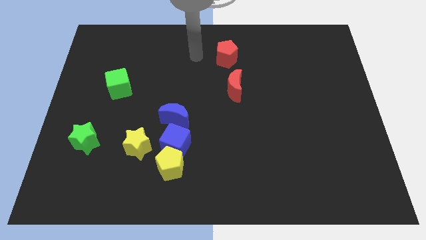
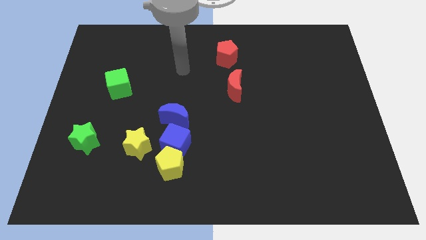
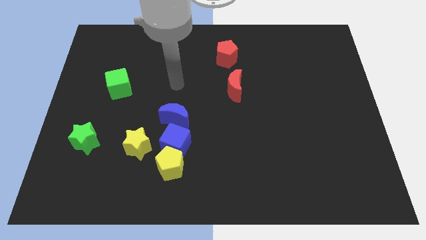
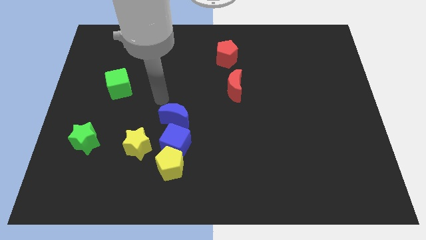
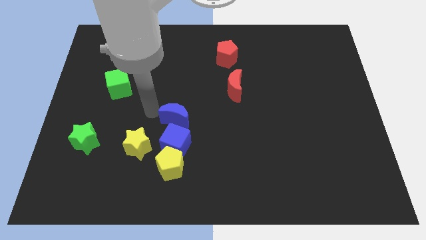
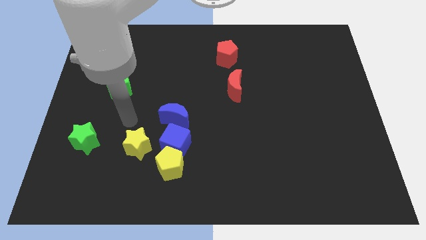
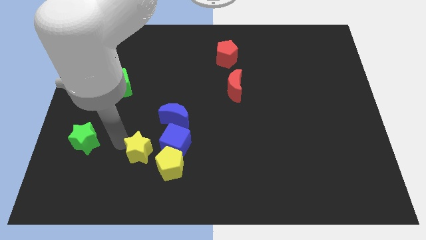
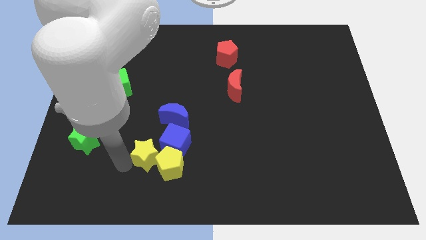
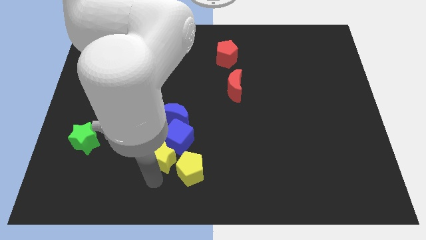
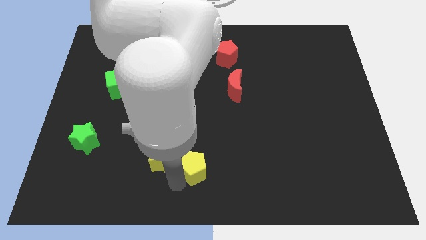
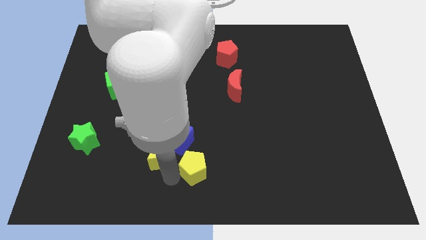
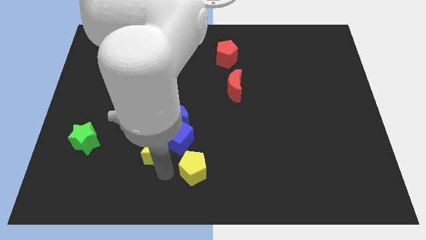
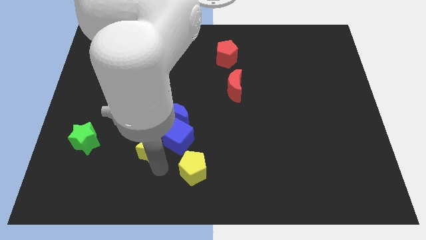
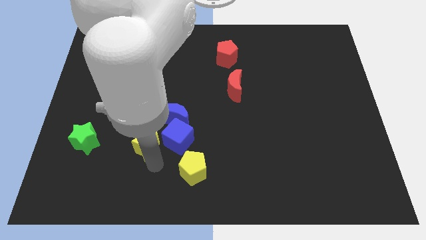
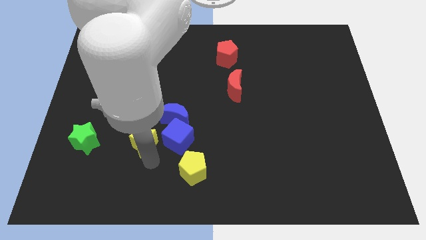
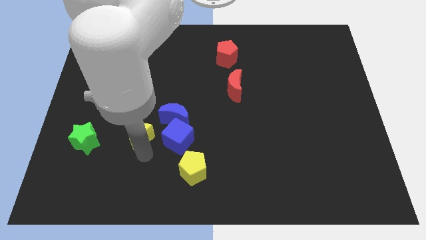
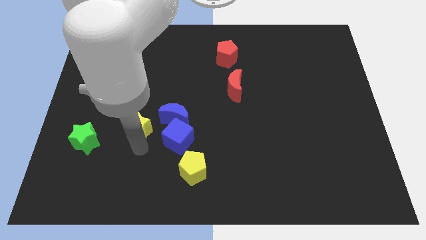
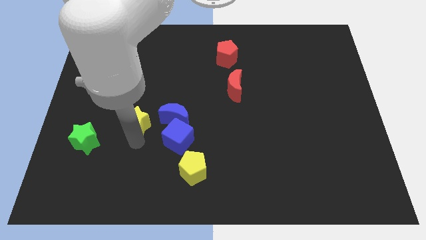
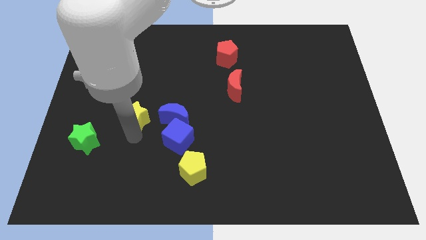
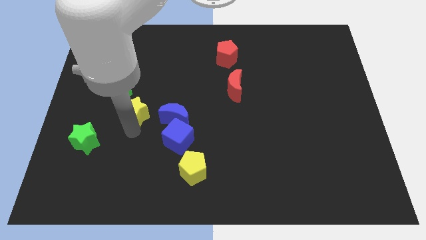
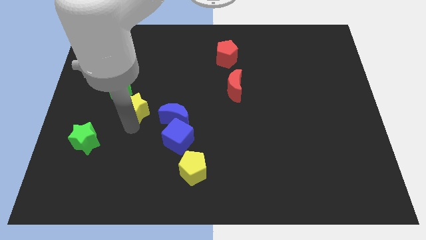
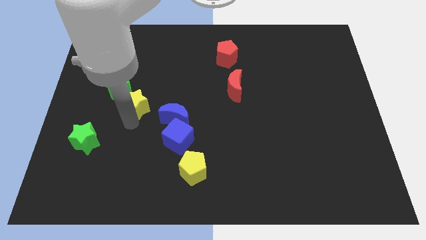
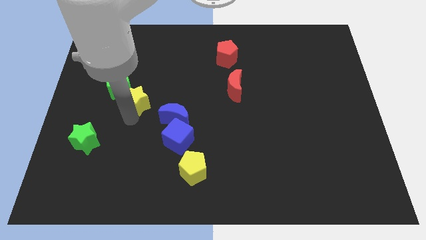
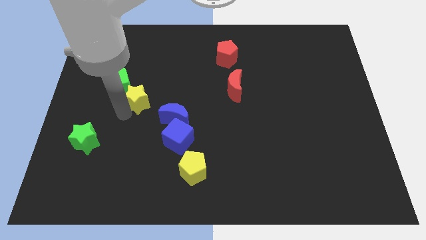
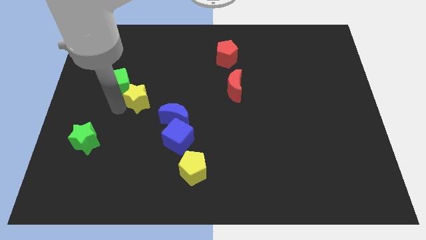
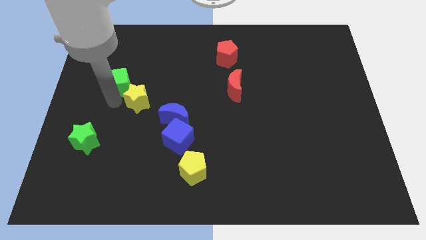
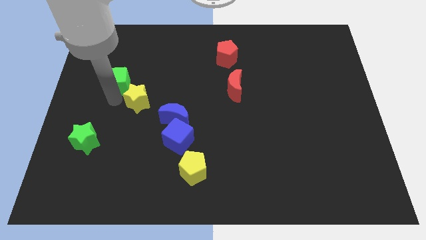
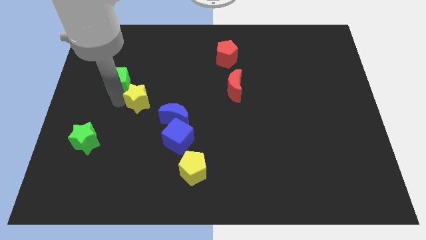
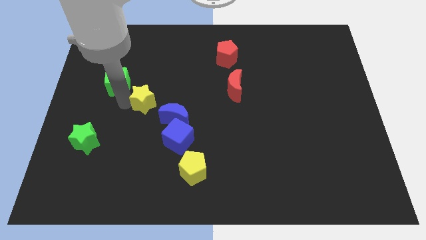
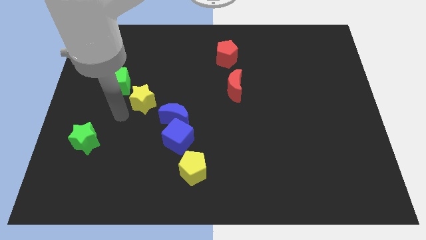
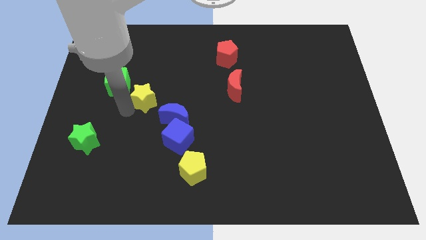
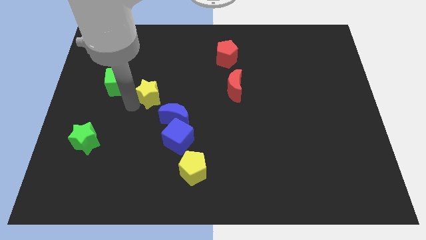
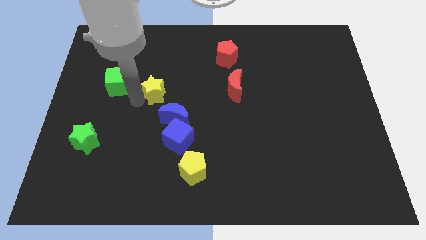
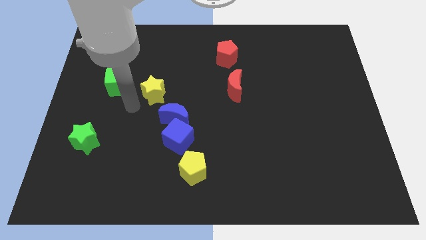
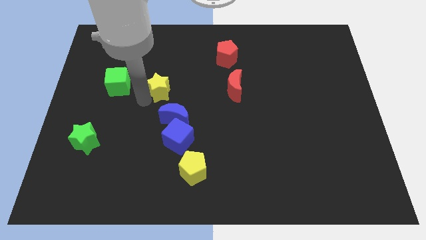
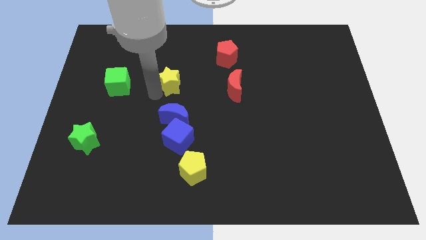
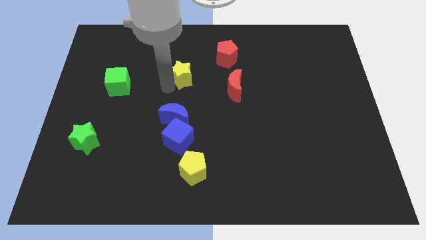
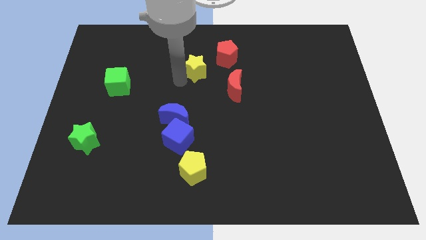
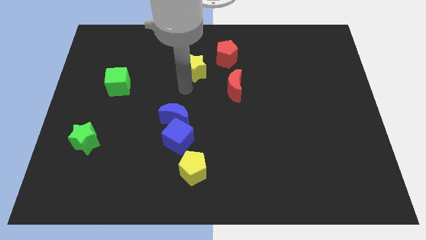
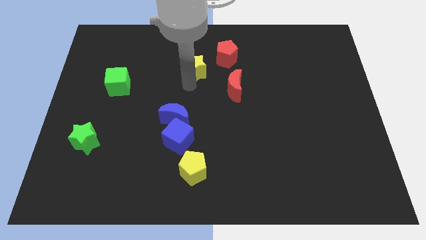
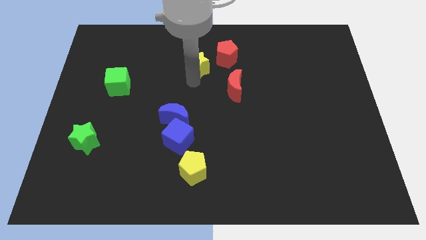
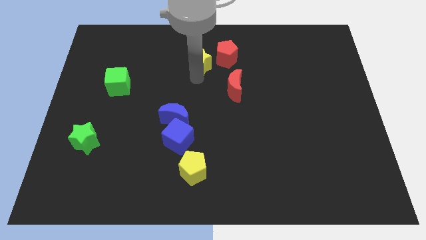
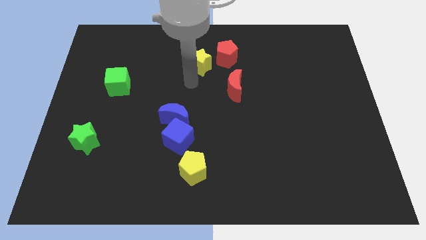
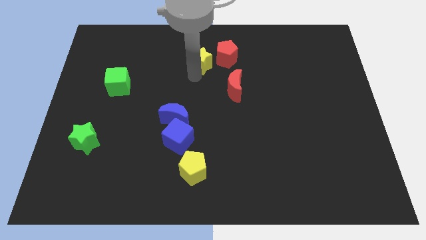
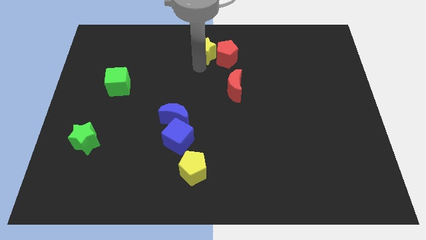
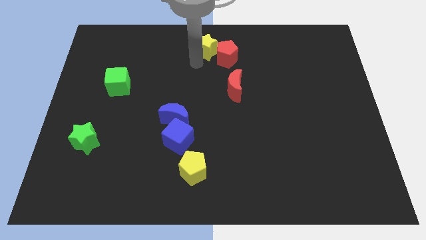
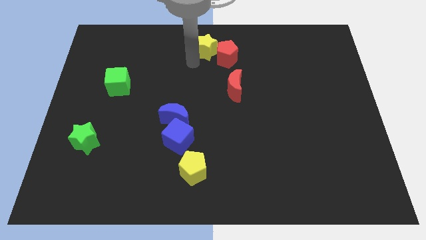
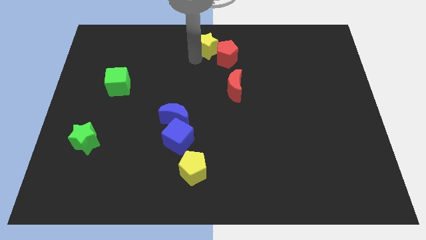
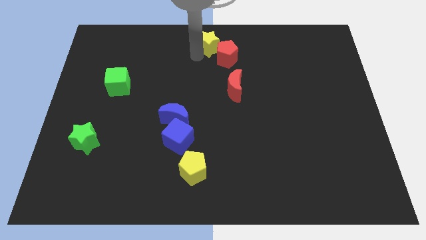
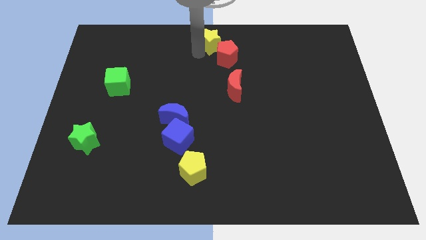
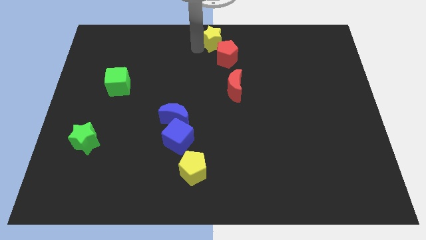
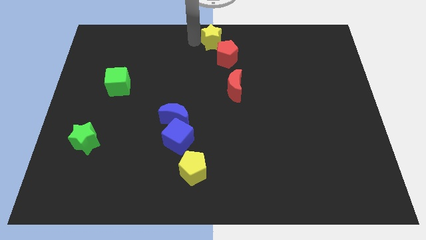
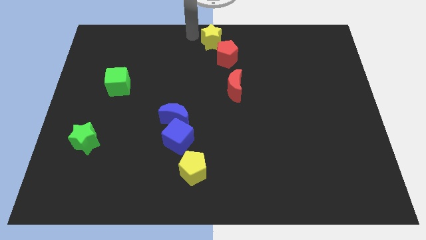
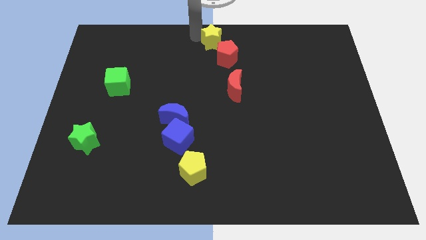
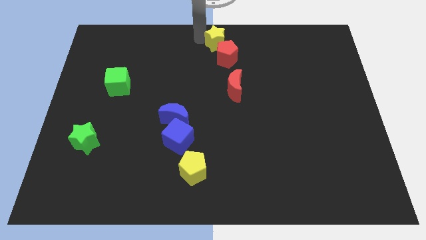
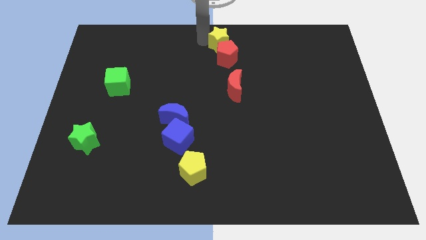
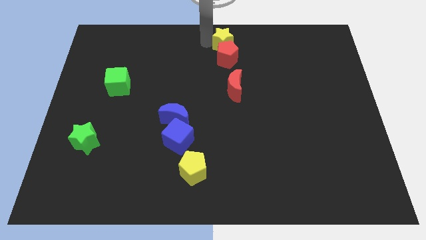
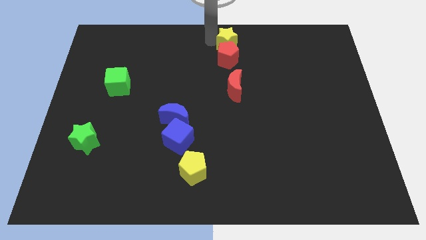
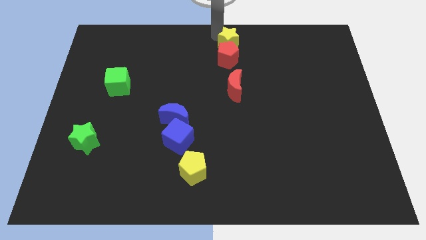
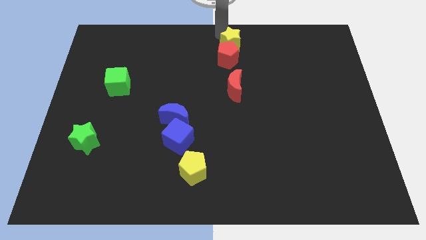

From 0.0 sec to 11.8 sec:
put the yellow star above the red moon
